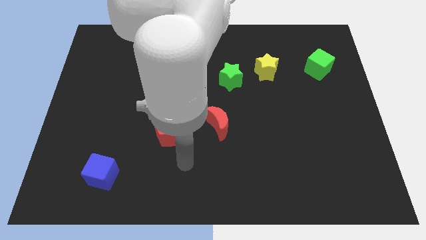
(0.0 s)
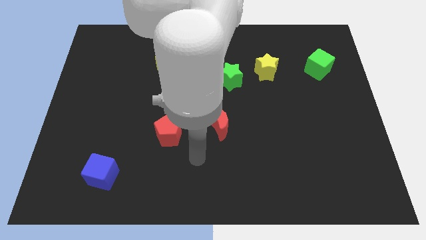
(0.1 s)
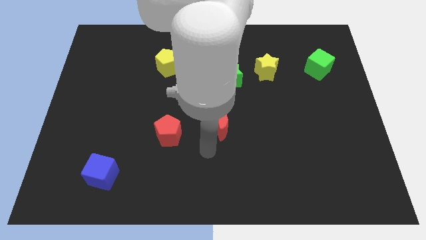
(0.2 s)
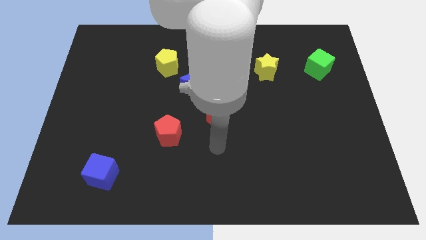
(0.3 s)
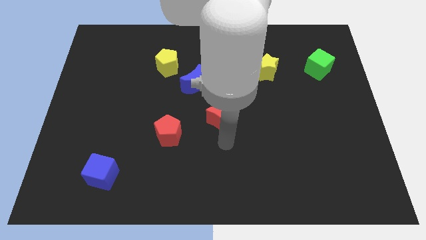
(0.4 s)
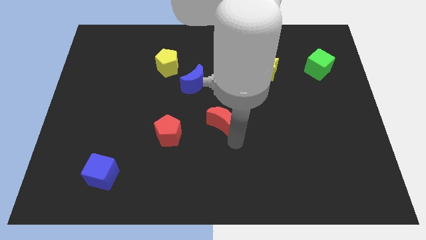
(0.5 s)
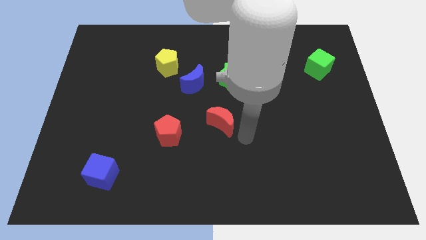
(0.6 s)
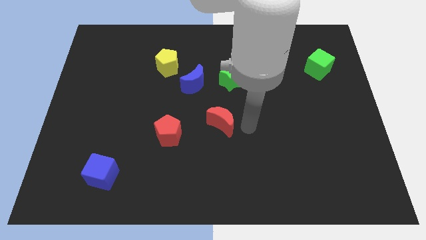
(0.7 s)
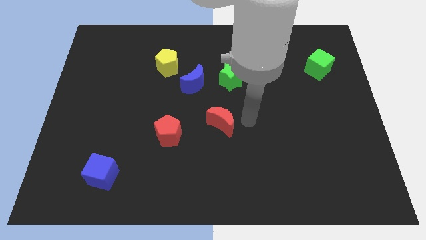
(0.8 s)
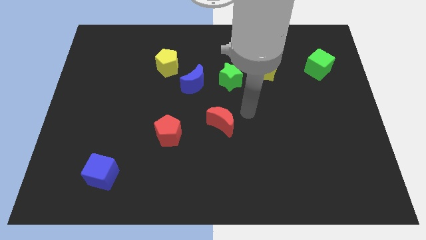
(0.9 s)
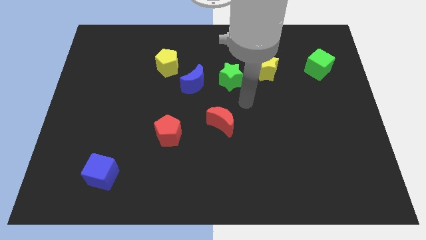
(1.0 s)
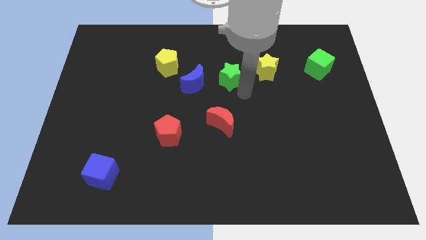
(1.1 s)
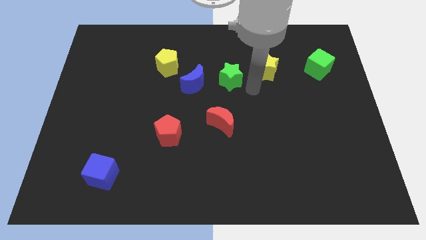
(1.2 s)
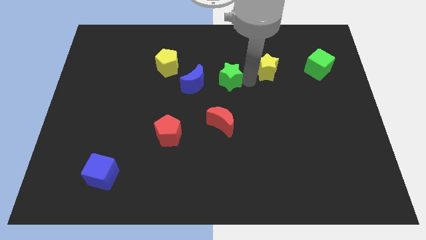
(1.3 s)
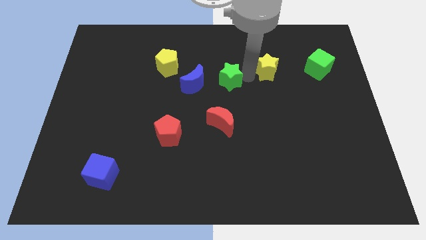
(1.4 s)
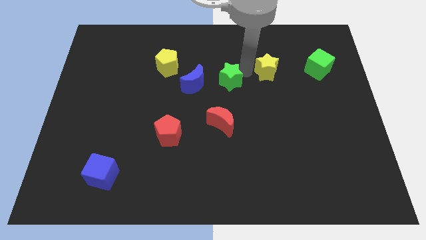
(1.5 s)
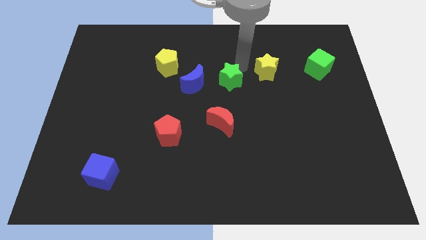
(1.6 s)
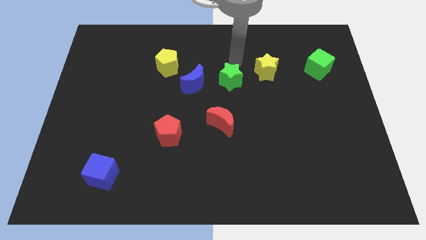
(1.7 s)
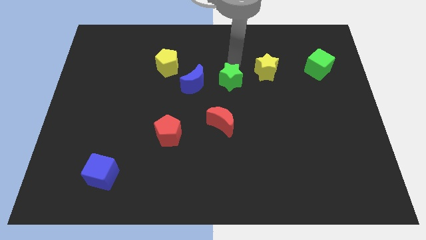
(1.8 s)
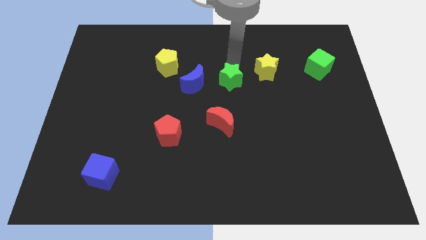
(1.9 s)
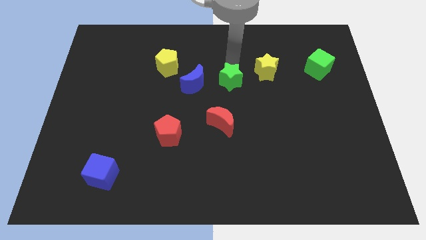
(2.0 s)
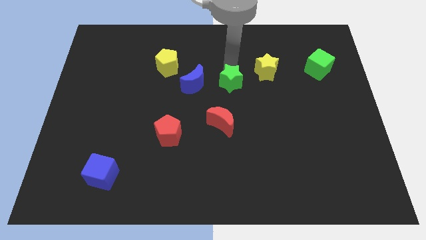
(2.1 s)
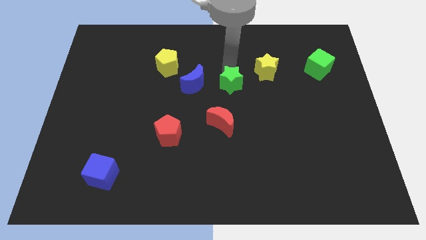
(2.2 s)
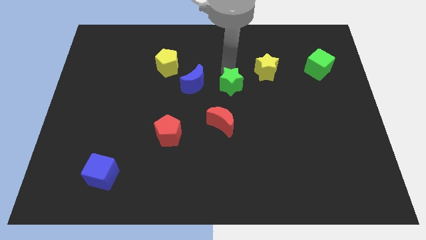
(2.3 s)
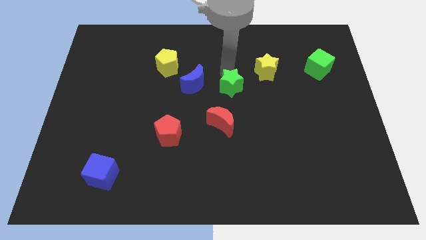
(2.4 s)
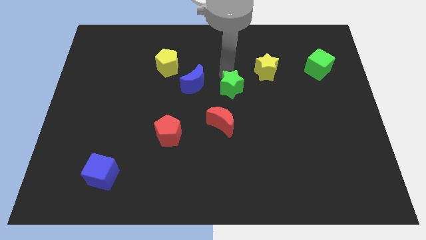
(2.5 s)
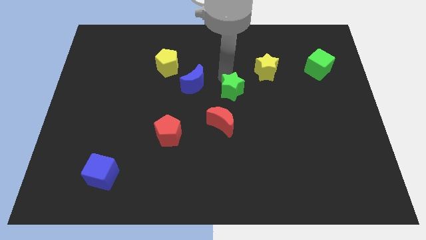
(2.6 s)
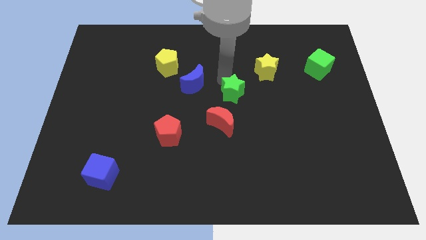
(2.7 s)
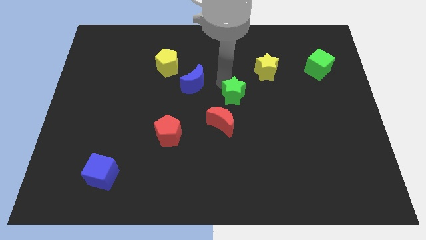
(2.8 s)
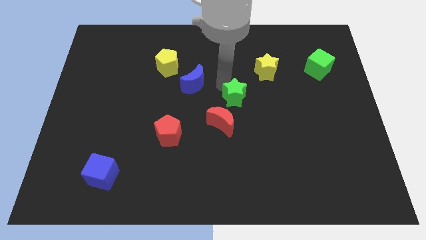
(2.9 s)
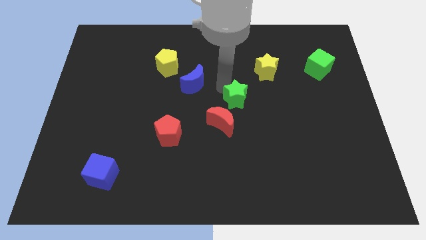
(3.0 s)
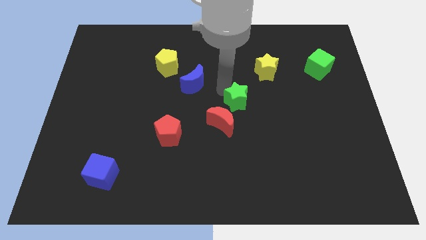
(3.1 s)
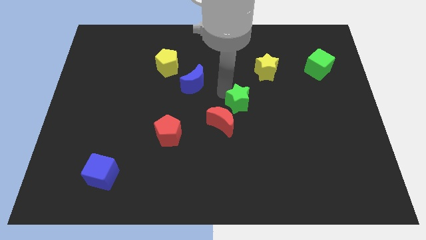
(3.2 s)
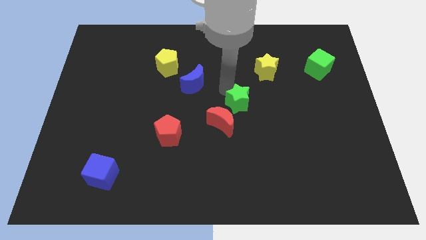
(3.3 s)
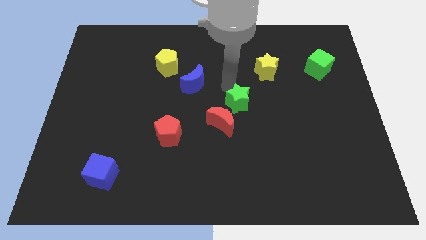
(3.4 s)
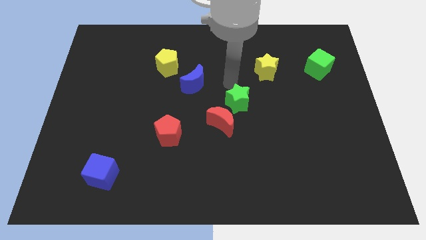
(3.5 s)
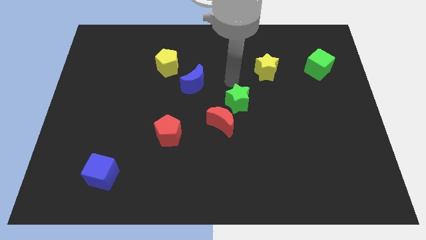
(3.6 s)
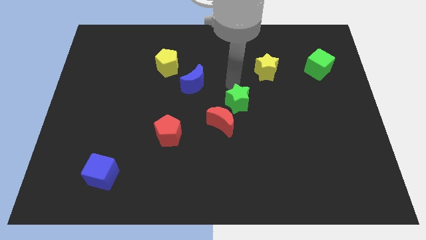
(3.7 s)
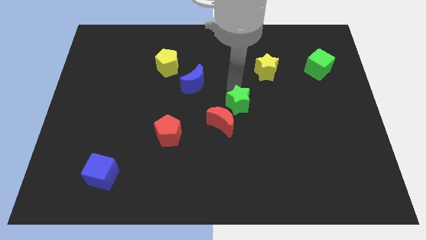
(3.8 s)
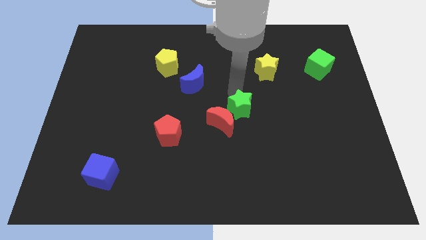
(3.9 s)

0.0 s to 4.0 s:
separate the green star from the blue moon and yellow star

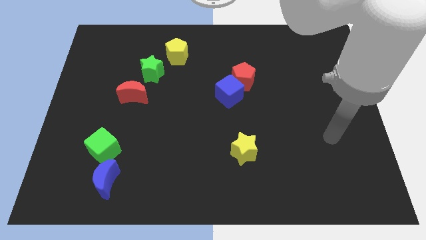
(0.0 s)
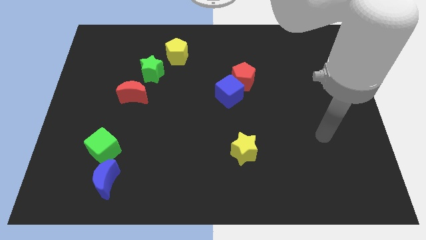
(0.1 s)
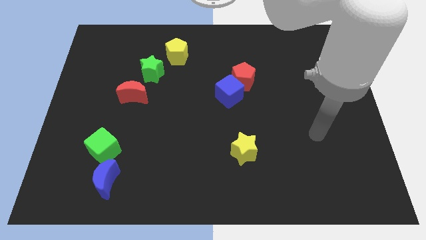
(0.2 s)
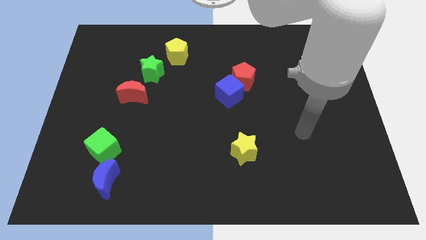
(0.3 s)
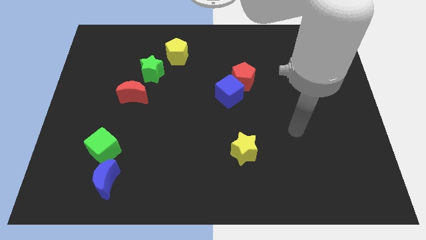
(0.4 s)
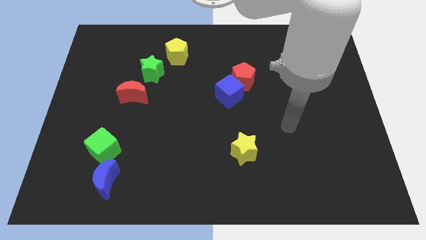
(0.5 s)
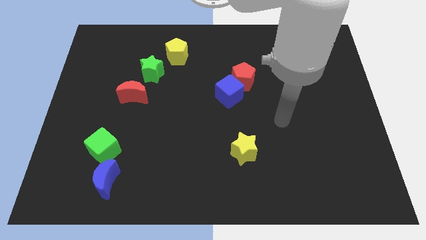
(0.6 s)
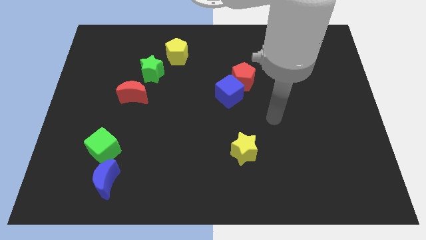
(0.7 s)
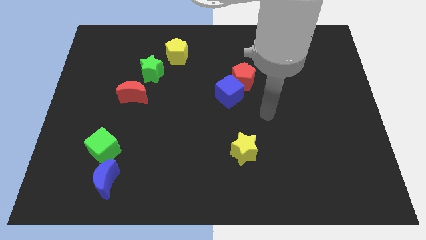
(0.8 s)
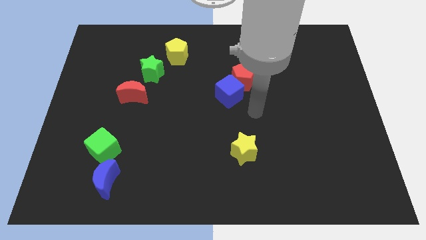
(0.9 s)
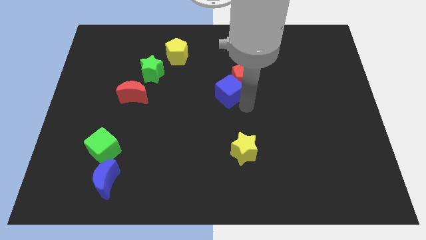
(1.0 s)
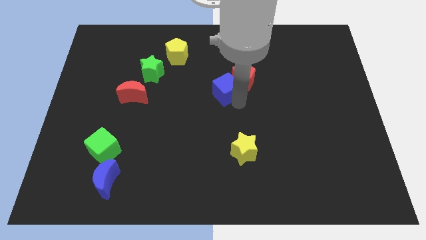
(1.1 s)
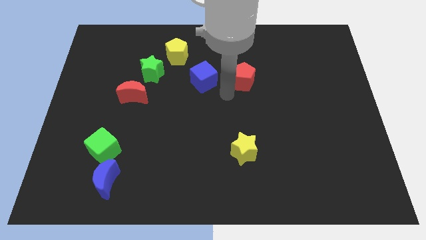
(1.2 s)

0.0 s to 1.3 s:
separate the red pentagon from the blue cube

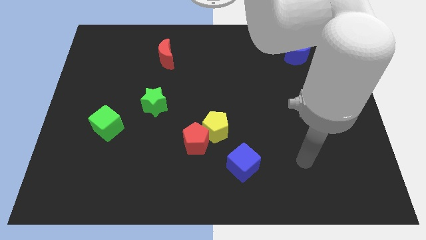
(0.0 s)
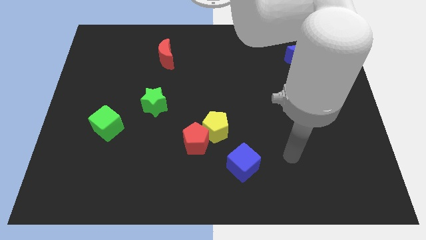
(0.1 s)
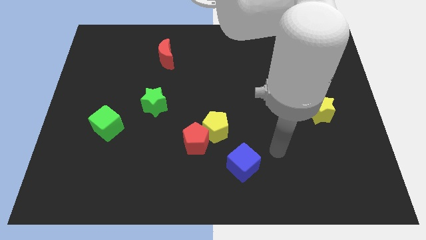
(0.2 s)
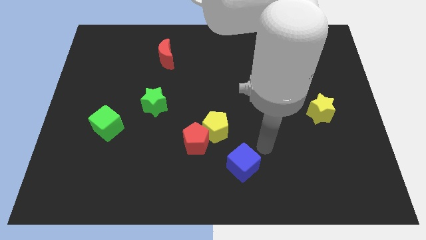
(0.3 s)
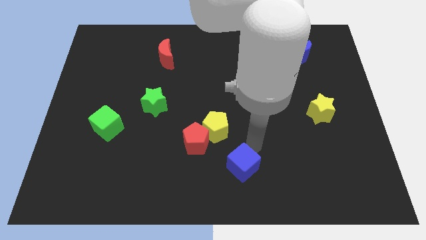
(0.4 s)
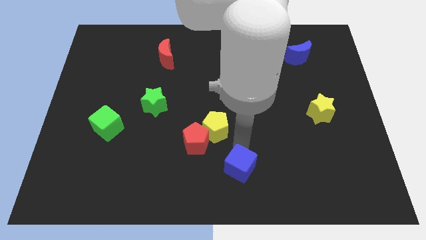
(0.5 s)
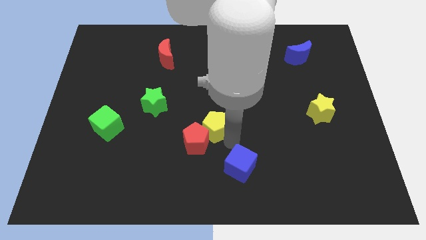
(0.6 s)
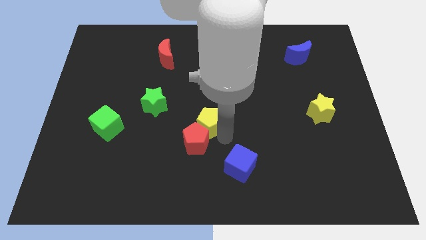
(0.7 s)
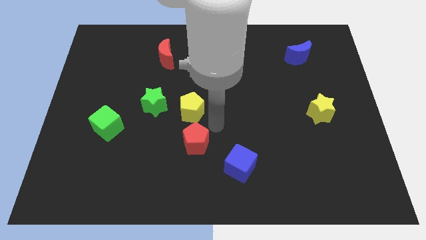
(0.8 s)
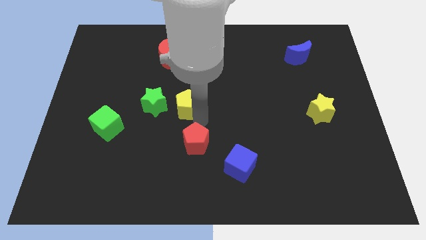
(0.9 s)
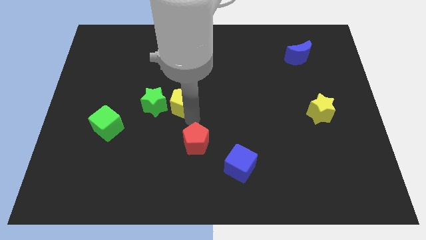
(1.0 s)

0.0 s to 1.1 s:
pull the red pentagon apart from the yellow pentagon

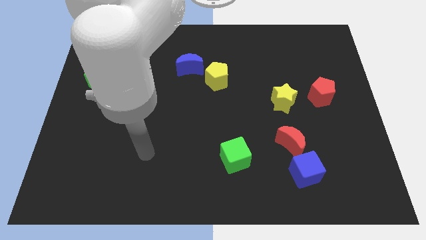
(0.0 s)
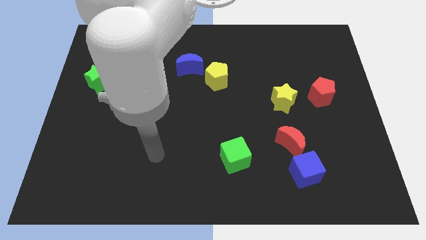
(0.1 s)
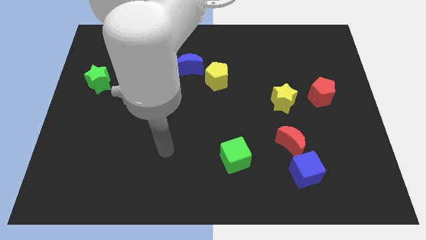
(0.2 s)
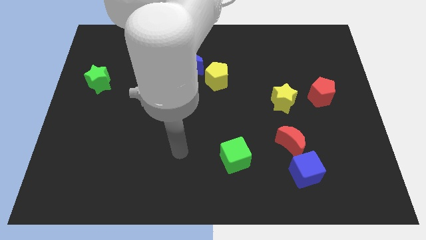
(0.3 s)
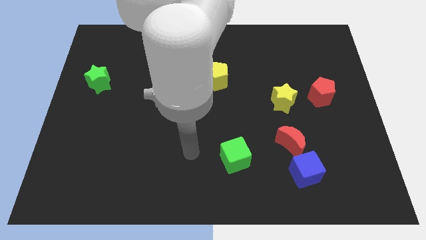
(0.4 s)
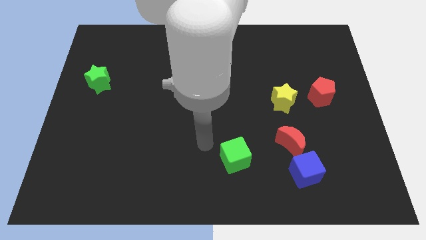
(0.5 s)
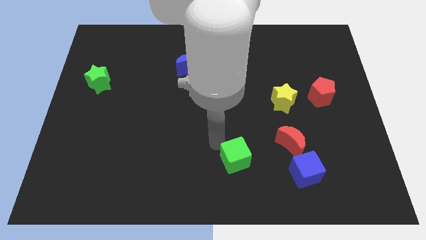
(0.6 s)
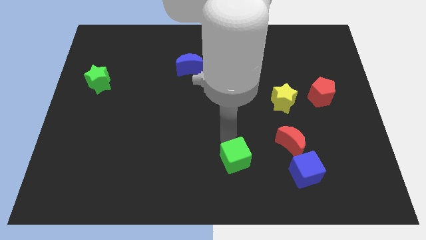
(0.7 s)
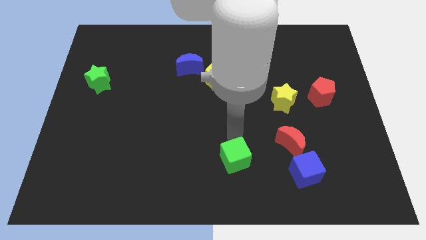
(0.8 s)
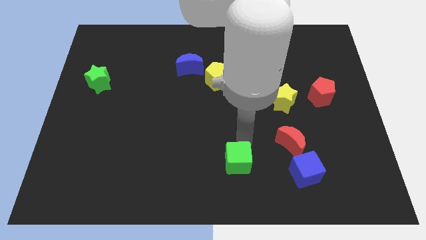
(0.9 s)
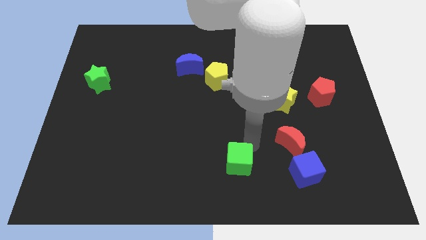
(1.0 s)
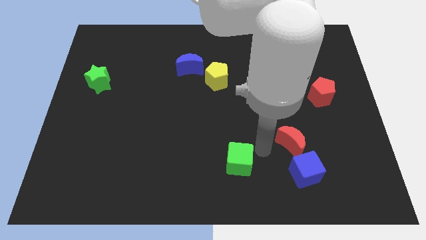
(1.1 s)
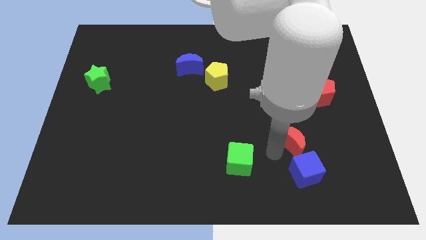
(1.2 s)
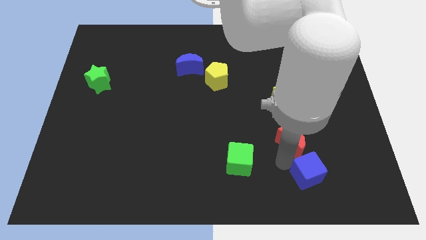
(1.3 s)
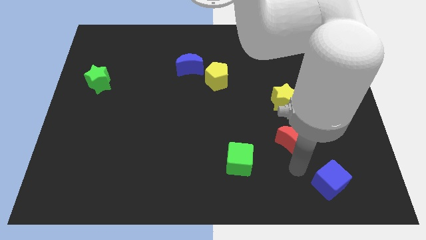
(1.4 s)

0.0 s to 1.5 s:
pull the red moon apart from the blue cube

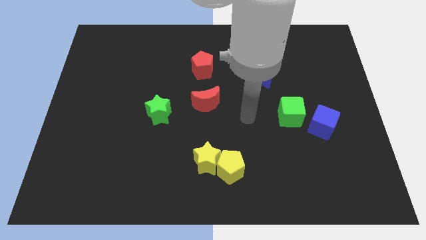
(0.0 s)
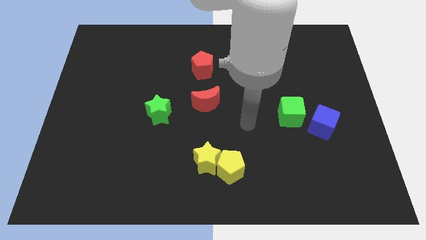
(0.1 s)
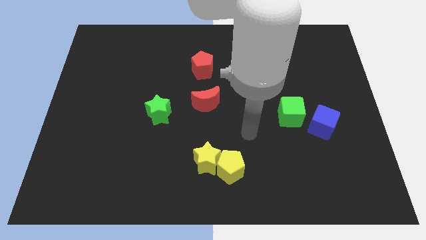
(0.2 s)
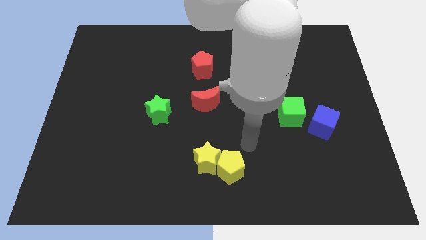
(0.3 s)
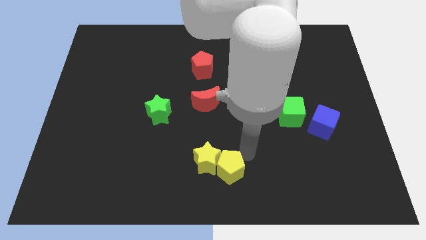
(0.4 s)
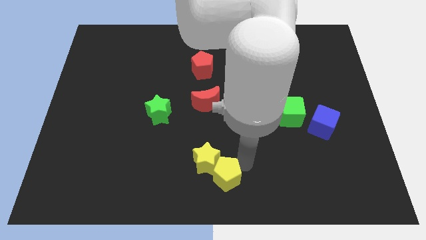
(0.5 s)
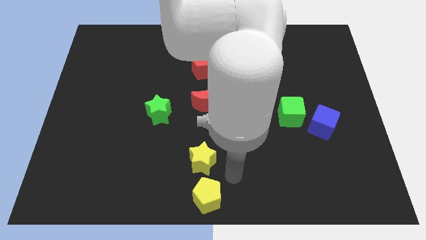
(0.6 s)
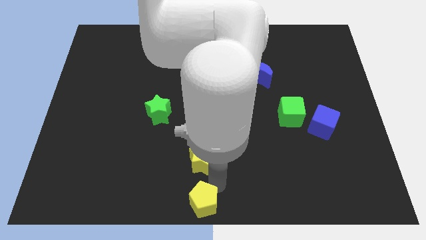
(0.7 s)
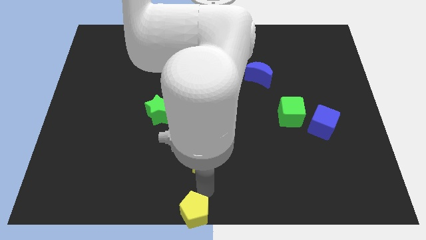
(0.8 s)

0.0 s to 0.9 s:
move the yellow star away from the yellow pentagon

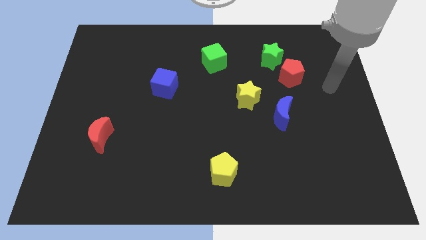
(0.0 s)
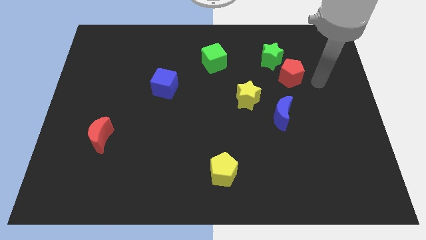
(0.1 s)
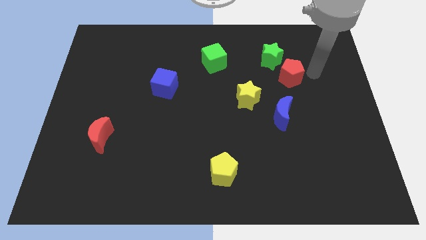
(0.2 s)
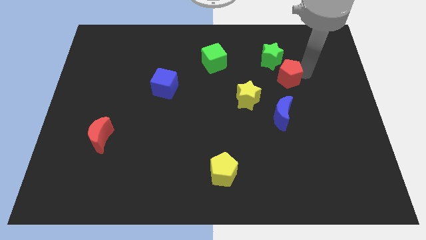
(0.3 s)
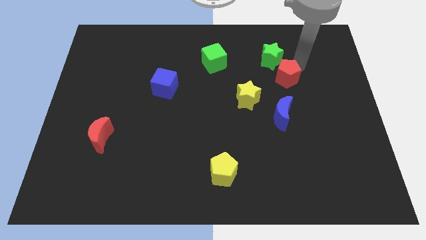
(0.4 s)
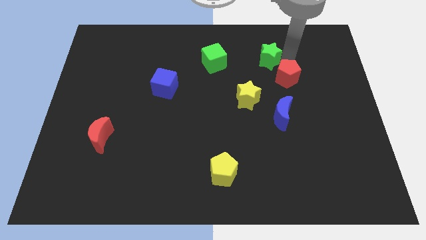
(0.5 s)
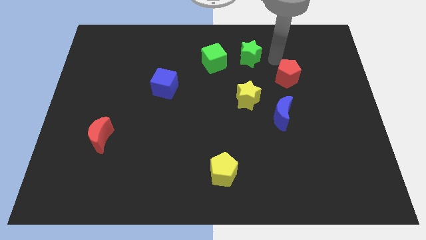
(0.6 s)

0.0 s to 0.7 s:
separate the red pentagon from the green star
